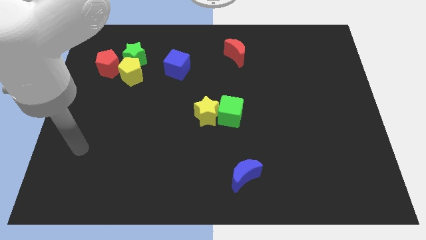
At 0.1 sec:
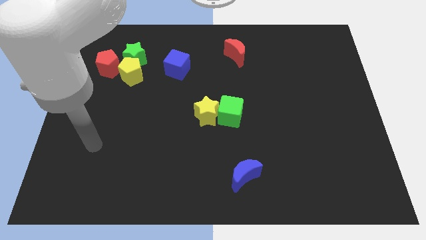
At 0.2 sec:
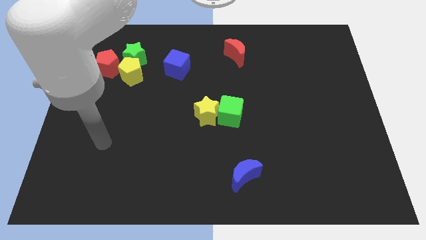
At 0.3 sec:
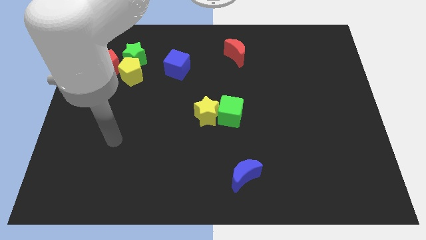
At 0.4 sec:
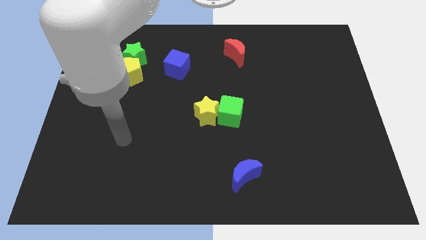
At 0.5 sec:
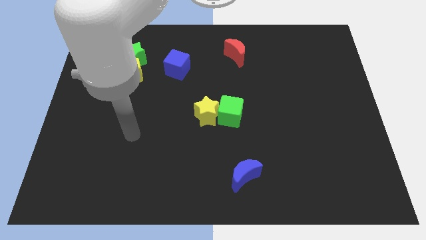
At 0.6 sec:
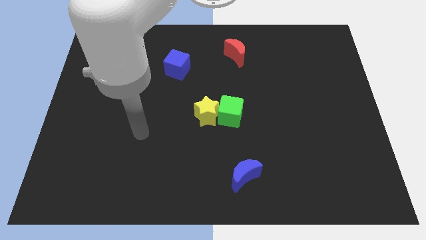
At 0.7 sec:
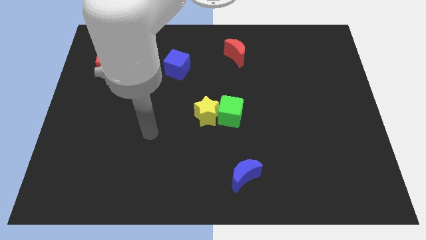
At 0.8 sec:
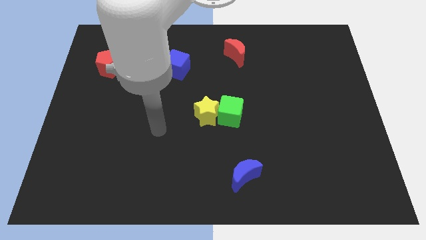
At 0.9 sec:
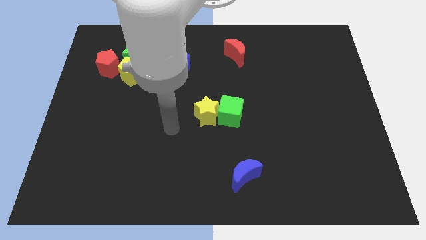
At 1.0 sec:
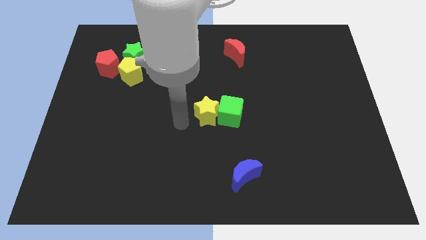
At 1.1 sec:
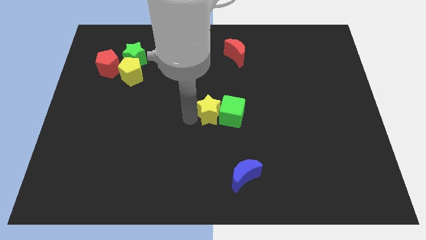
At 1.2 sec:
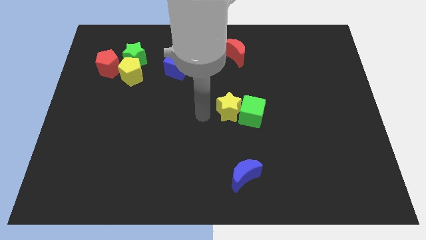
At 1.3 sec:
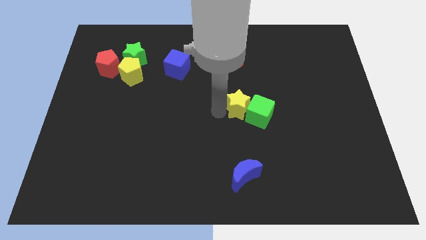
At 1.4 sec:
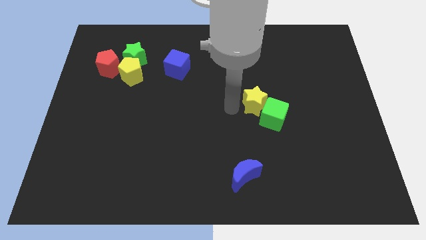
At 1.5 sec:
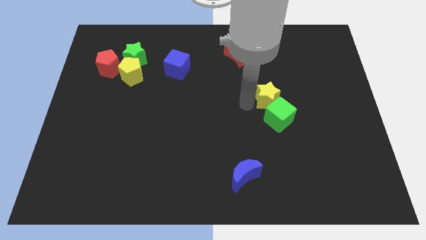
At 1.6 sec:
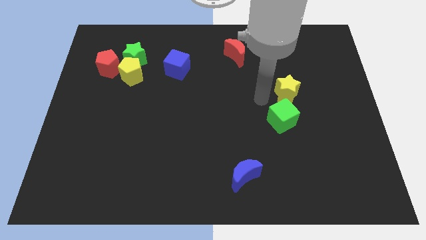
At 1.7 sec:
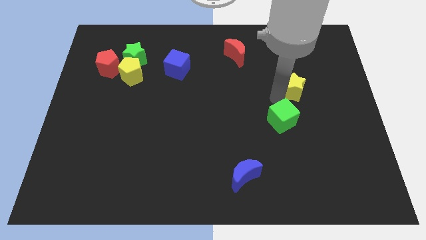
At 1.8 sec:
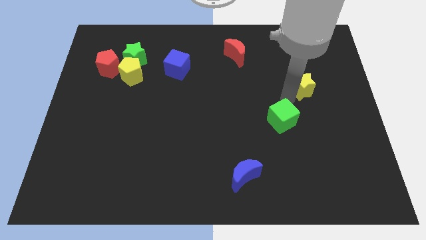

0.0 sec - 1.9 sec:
pull the green cube apart from the yellow star

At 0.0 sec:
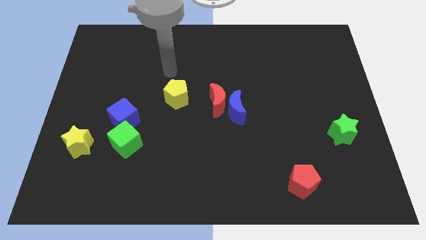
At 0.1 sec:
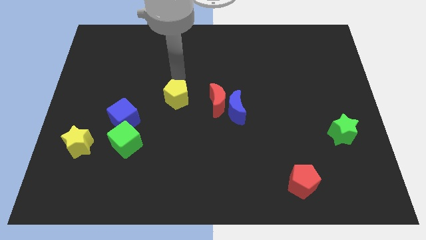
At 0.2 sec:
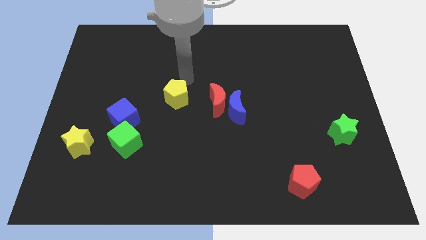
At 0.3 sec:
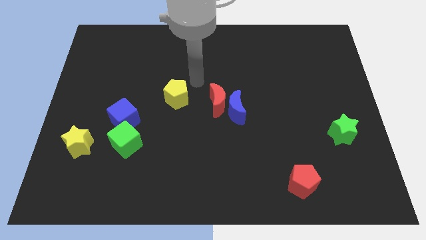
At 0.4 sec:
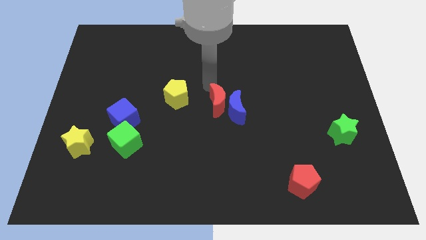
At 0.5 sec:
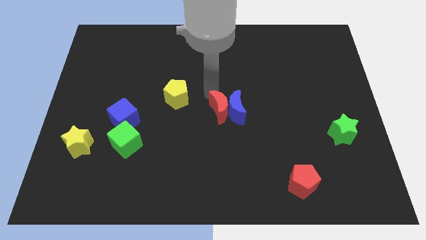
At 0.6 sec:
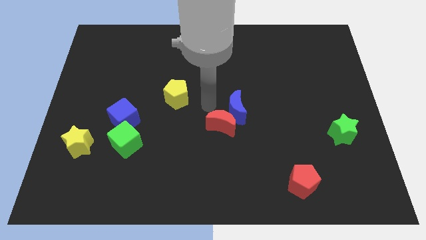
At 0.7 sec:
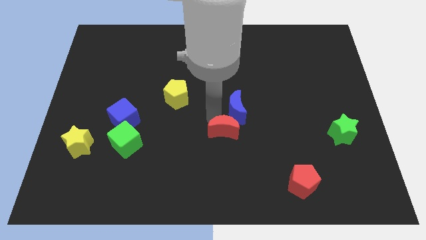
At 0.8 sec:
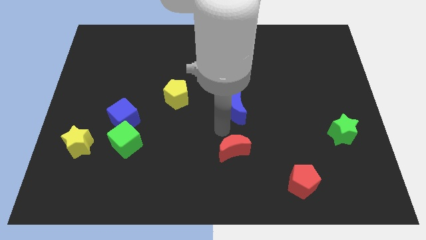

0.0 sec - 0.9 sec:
pull the blue moon apart from the red moon

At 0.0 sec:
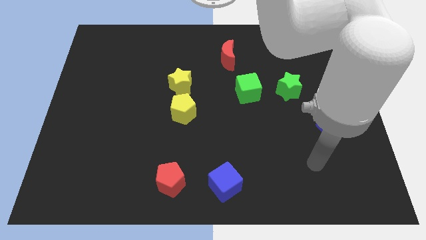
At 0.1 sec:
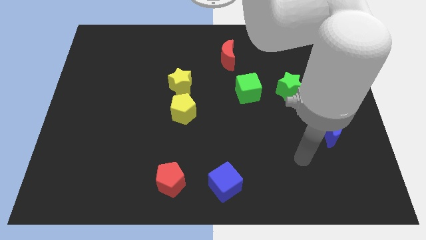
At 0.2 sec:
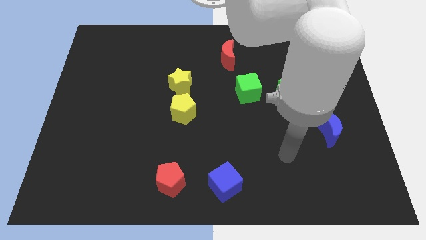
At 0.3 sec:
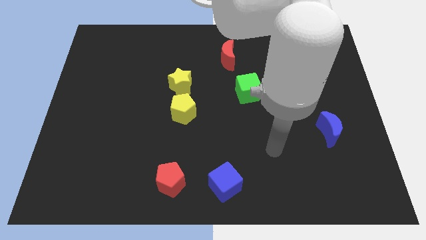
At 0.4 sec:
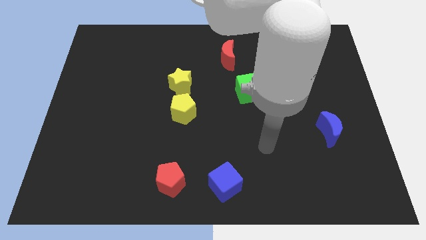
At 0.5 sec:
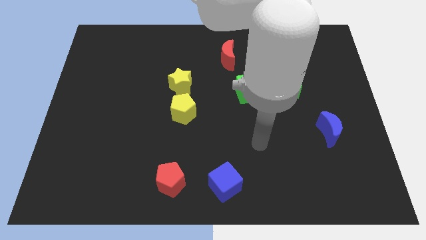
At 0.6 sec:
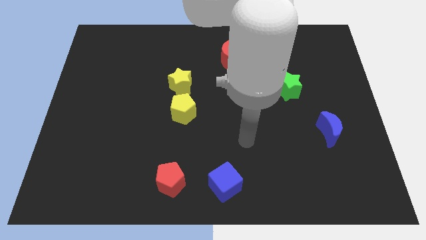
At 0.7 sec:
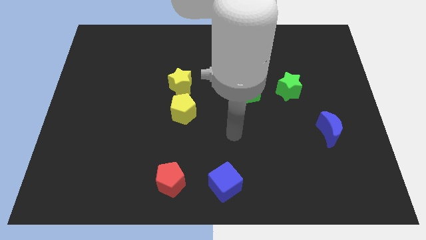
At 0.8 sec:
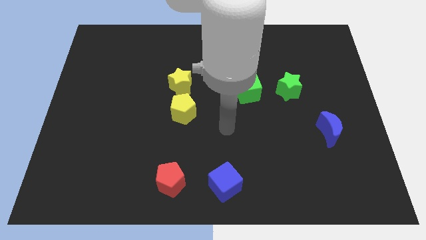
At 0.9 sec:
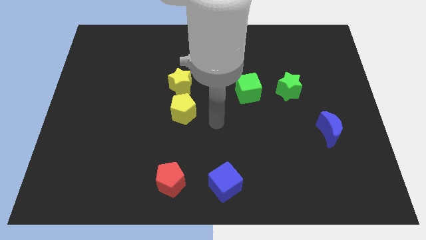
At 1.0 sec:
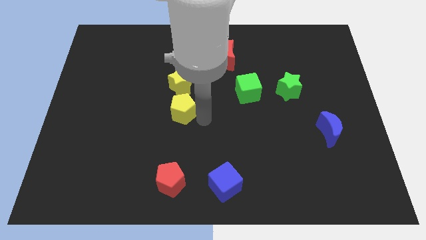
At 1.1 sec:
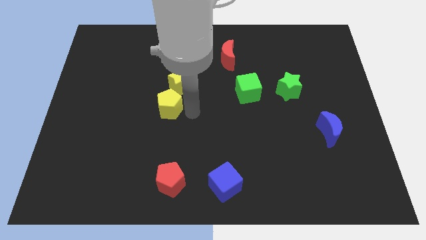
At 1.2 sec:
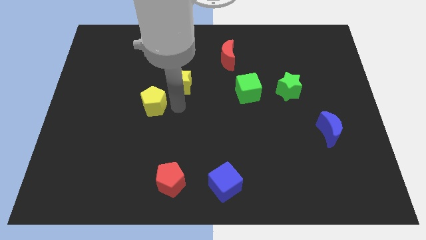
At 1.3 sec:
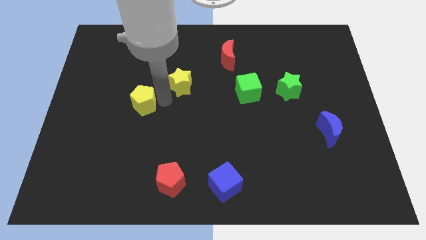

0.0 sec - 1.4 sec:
separate the yellow star from the yellow pentagon

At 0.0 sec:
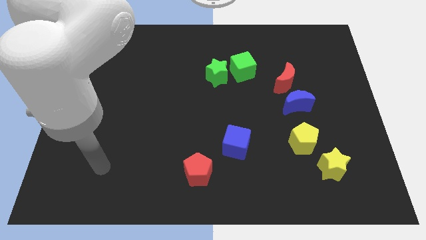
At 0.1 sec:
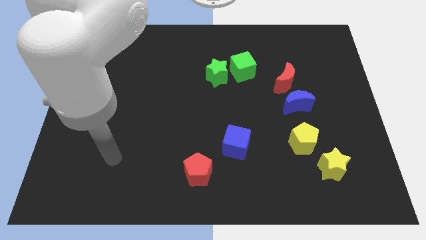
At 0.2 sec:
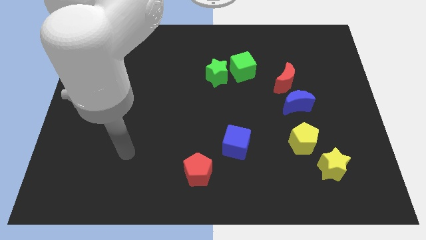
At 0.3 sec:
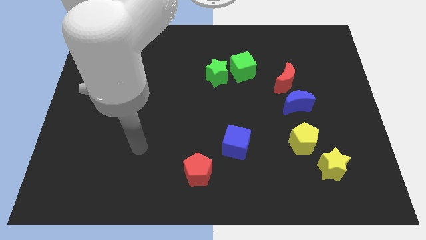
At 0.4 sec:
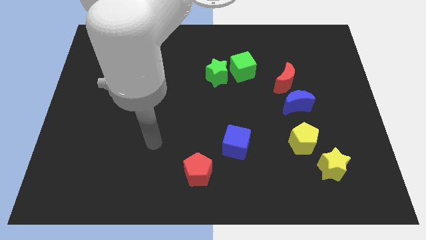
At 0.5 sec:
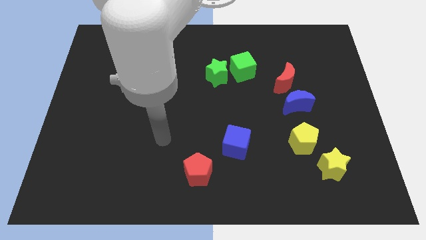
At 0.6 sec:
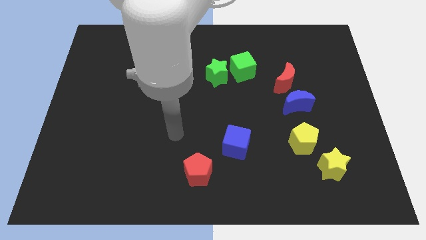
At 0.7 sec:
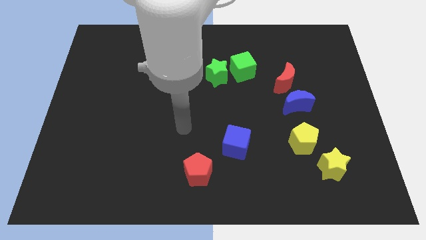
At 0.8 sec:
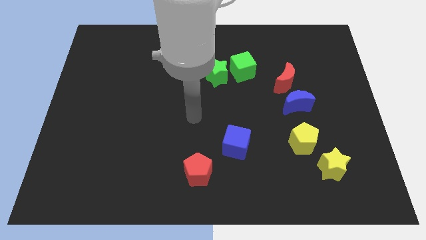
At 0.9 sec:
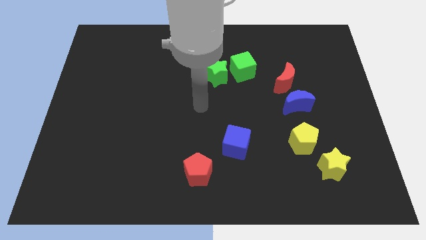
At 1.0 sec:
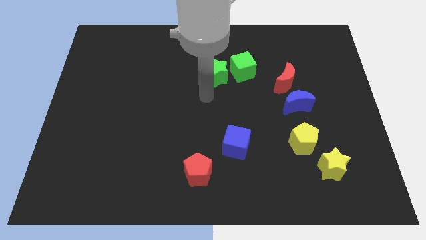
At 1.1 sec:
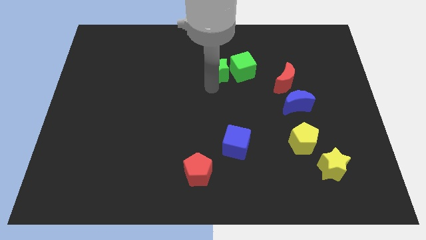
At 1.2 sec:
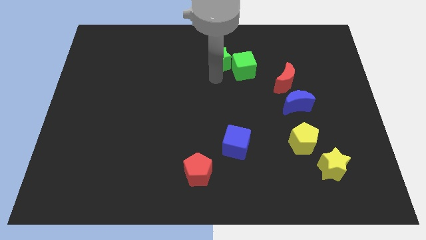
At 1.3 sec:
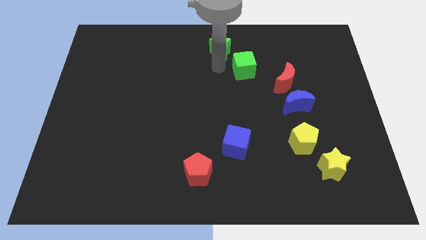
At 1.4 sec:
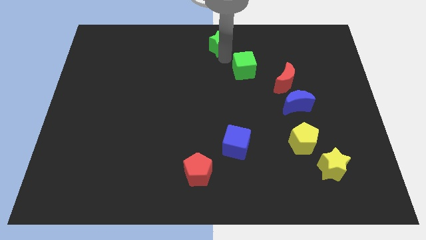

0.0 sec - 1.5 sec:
pull the green cube apart from the green star

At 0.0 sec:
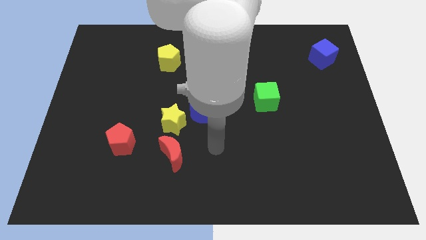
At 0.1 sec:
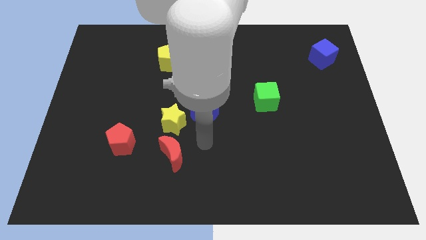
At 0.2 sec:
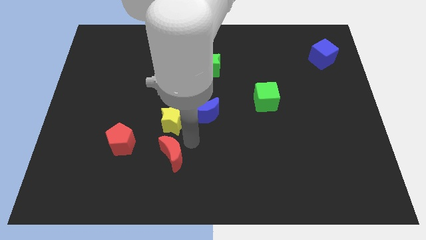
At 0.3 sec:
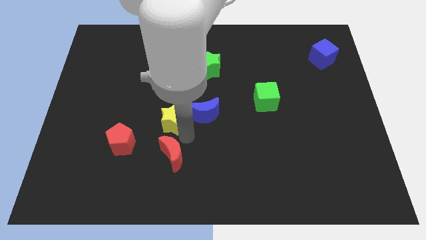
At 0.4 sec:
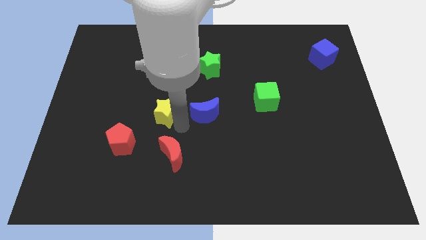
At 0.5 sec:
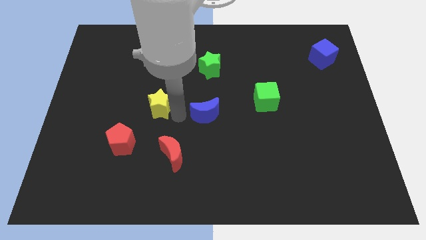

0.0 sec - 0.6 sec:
separate the blue moon from the yellow star

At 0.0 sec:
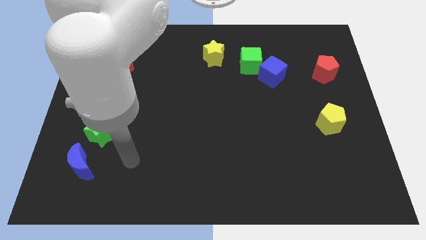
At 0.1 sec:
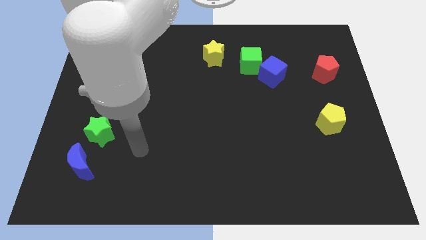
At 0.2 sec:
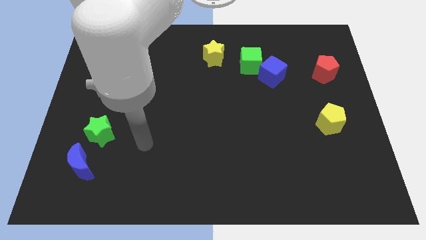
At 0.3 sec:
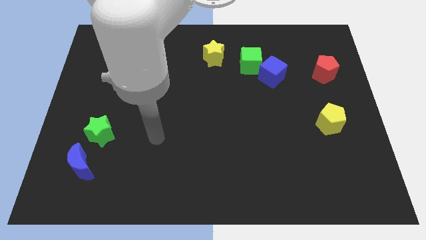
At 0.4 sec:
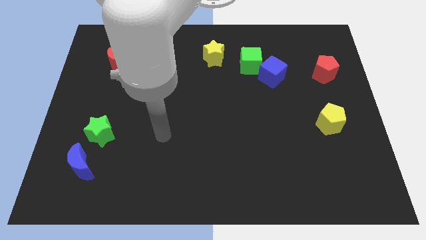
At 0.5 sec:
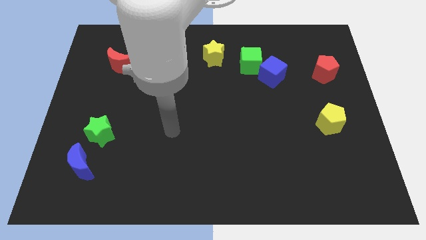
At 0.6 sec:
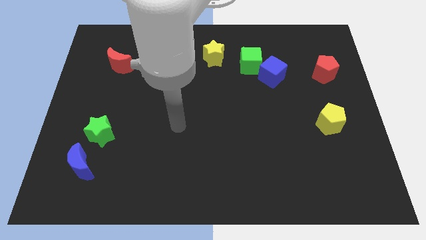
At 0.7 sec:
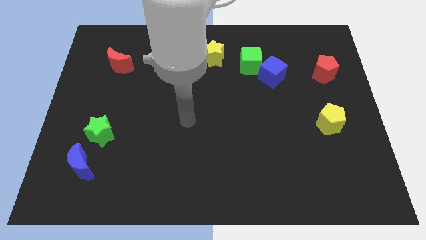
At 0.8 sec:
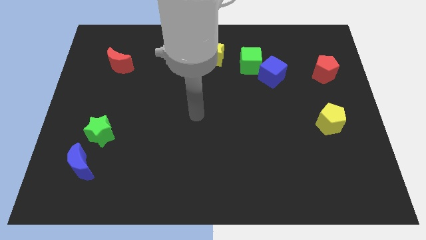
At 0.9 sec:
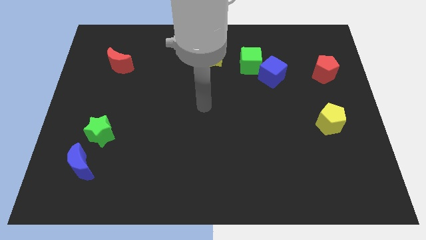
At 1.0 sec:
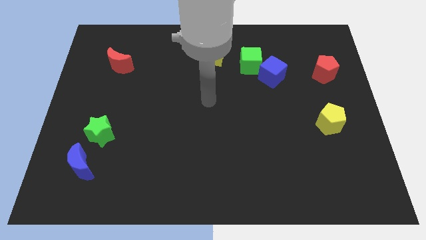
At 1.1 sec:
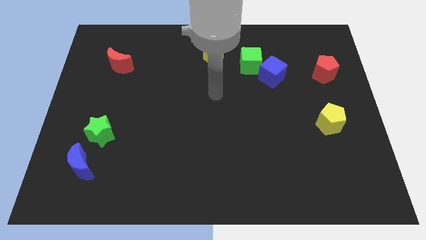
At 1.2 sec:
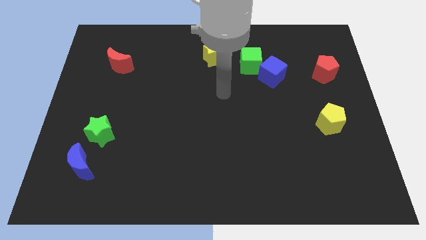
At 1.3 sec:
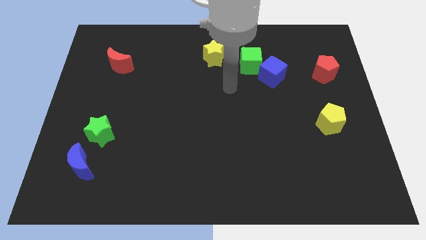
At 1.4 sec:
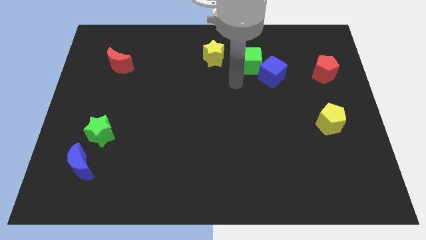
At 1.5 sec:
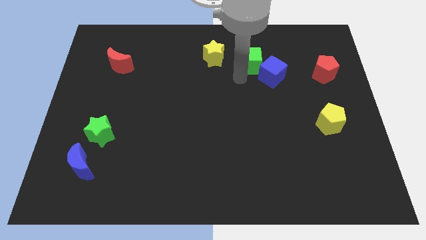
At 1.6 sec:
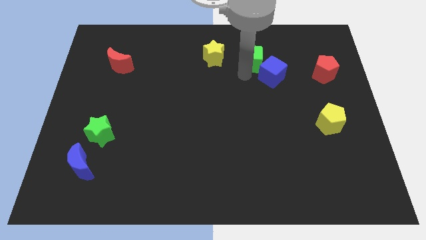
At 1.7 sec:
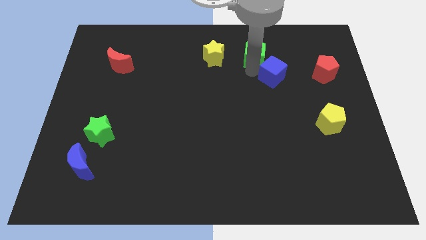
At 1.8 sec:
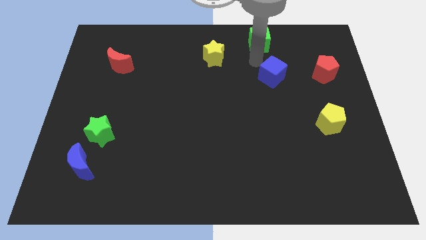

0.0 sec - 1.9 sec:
pull the blue cube apart from the green cube

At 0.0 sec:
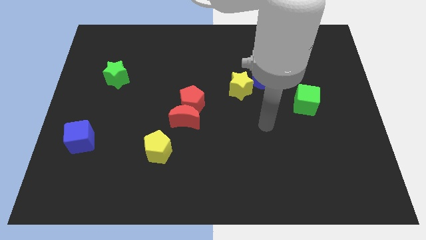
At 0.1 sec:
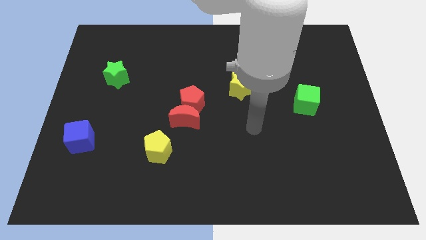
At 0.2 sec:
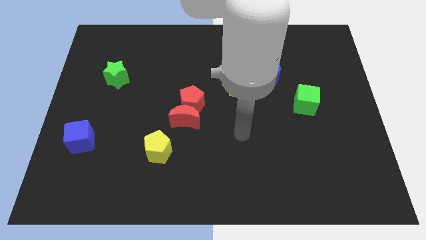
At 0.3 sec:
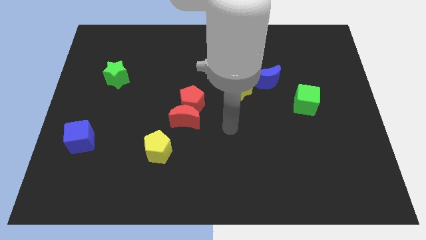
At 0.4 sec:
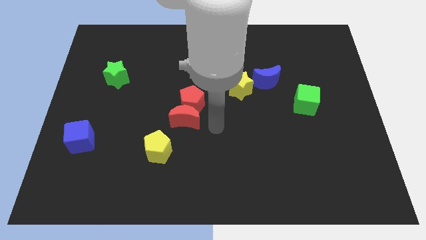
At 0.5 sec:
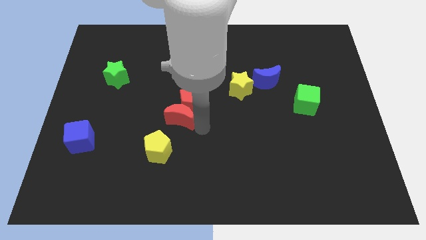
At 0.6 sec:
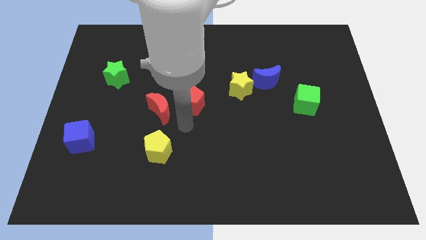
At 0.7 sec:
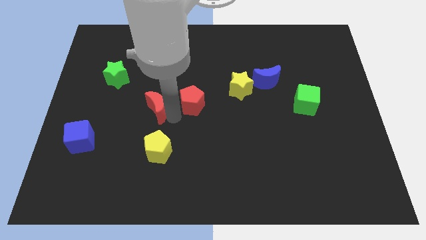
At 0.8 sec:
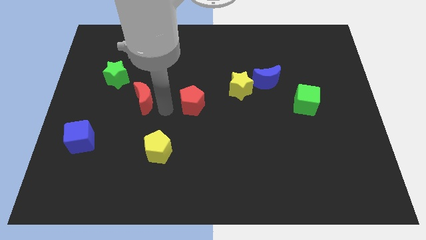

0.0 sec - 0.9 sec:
pull the red pentagon apart from the red moon

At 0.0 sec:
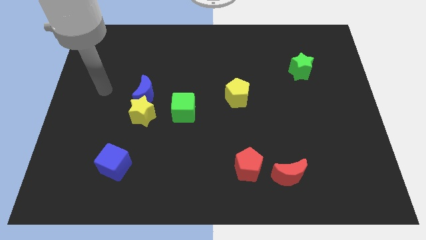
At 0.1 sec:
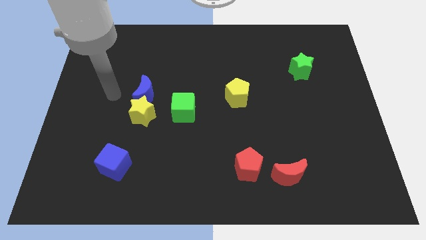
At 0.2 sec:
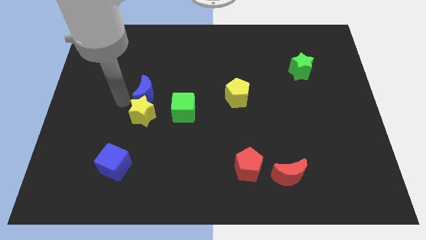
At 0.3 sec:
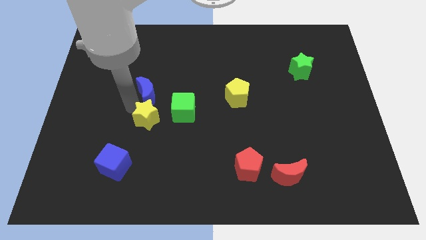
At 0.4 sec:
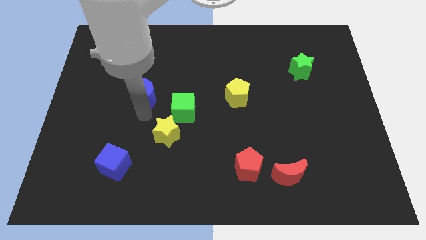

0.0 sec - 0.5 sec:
pull the blue moon apart from the yellow star
